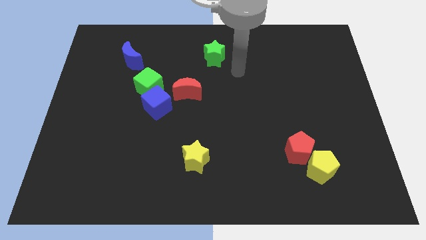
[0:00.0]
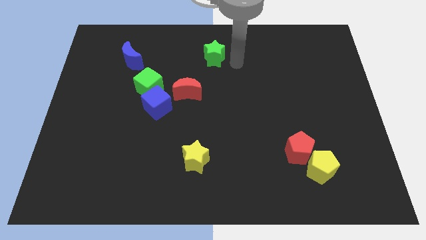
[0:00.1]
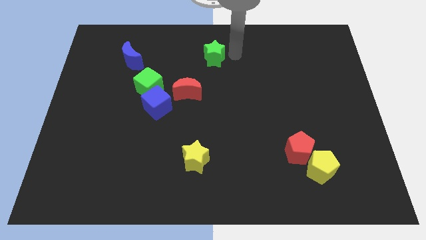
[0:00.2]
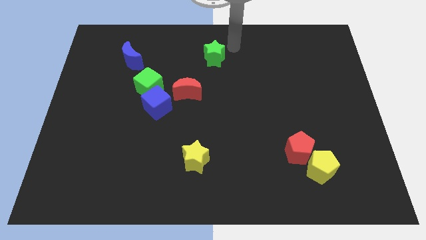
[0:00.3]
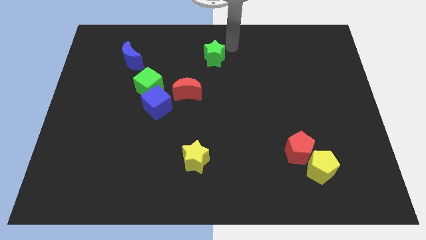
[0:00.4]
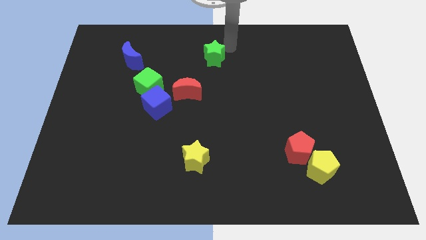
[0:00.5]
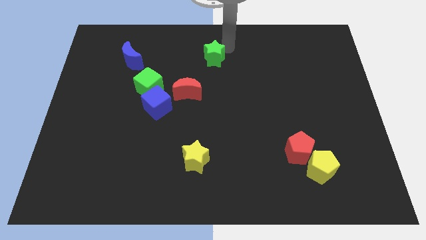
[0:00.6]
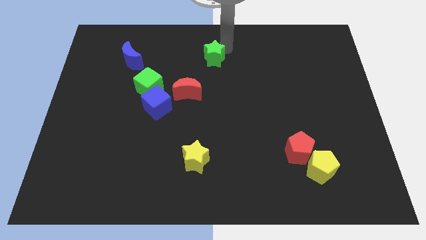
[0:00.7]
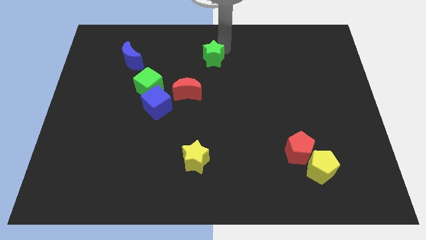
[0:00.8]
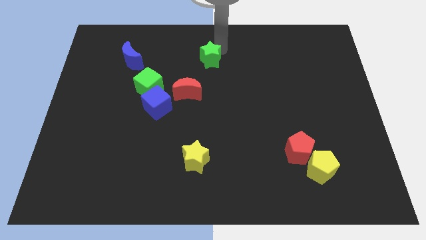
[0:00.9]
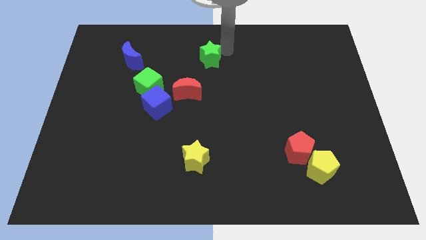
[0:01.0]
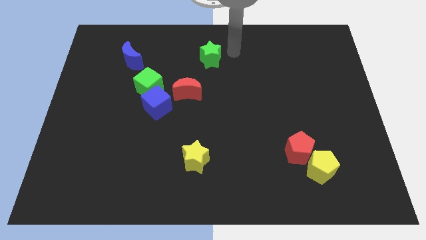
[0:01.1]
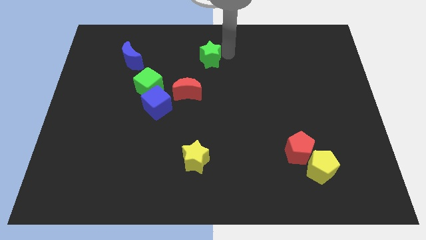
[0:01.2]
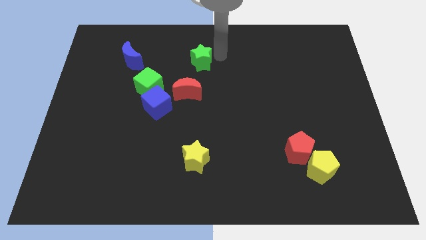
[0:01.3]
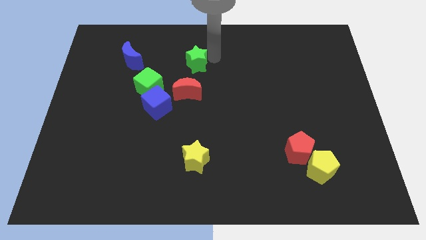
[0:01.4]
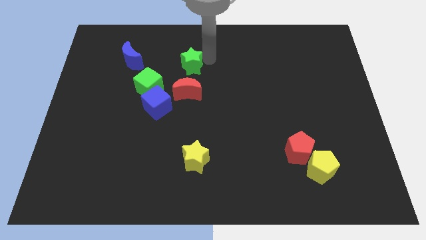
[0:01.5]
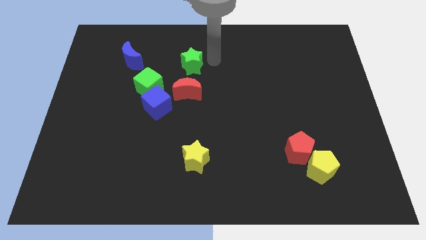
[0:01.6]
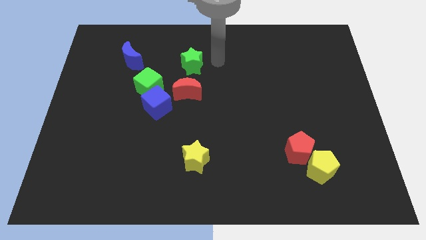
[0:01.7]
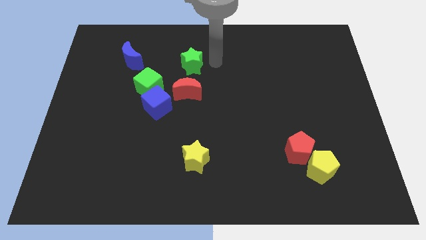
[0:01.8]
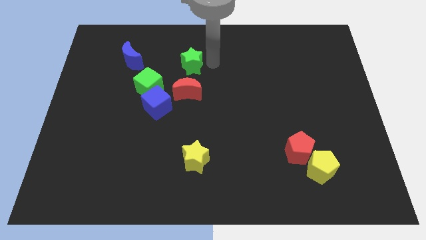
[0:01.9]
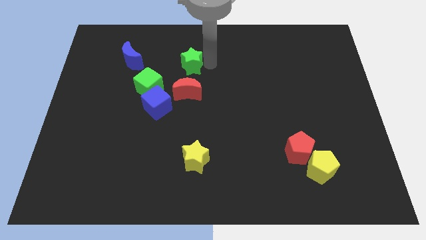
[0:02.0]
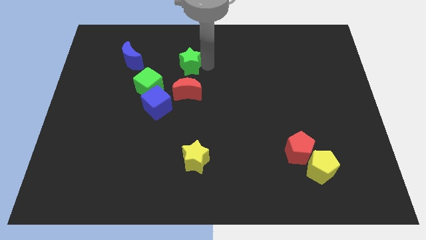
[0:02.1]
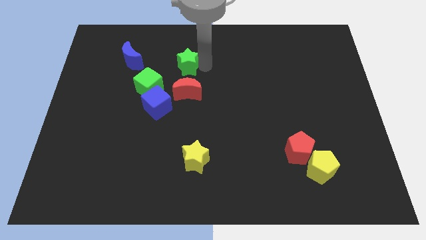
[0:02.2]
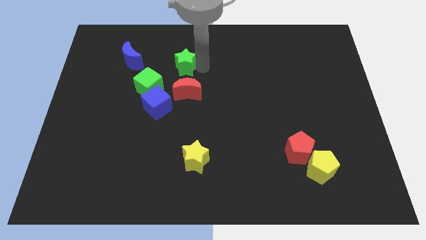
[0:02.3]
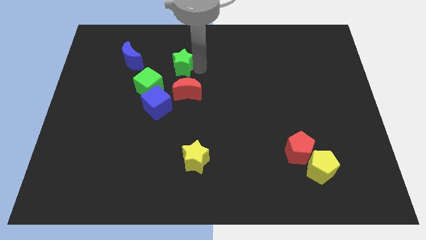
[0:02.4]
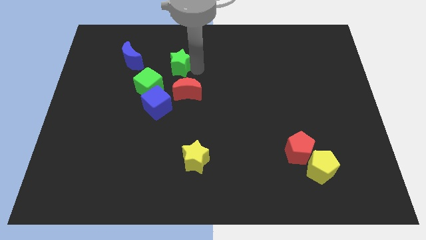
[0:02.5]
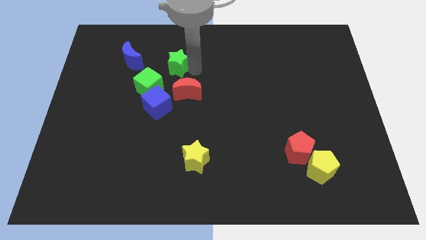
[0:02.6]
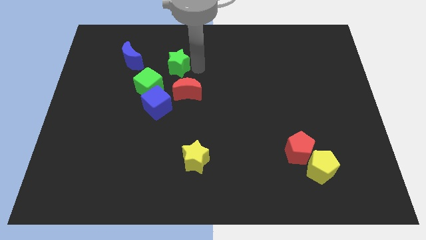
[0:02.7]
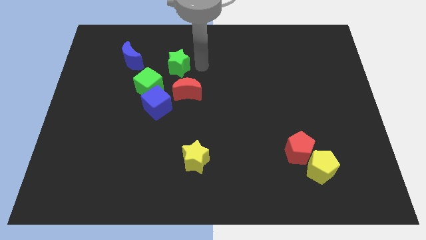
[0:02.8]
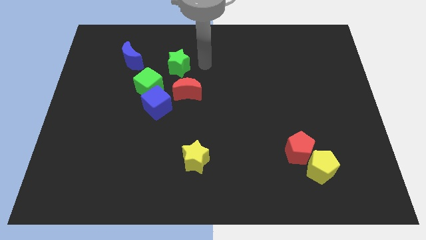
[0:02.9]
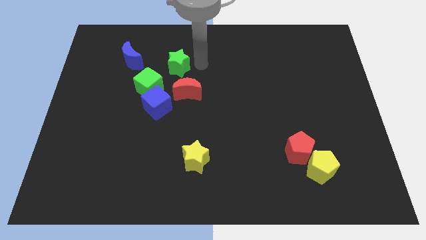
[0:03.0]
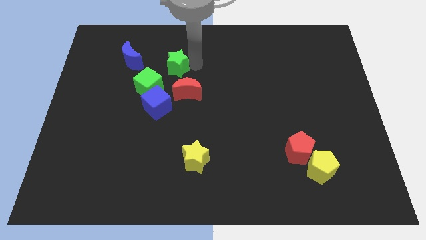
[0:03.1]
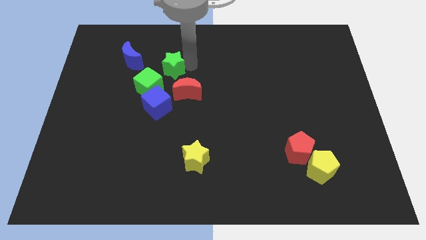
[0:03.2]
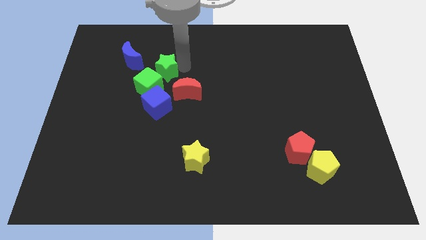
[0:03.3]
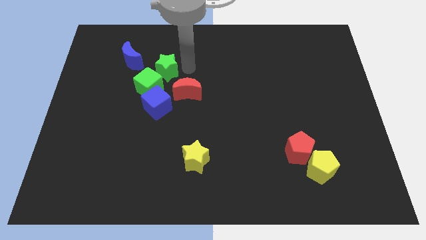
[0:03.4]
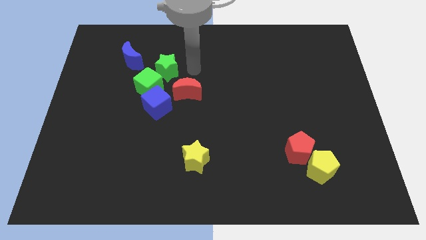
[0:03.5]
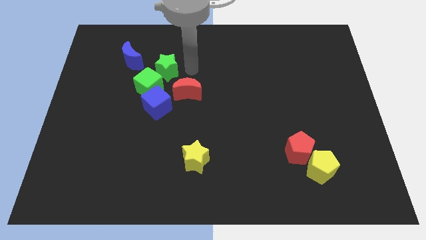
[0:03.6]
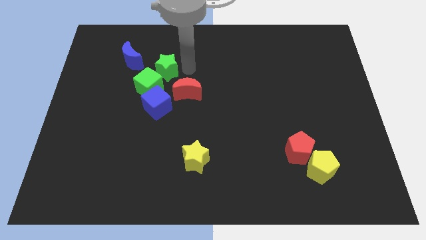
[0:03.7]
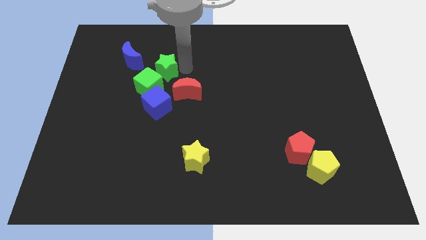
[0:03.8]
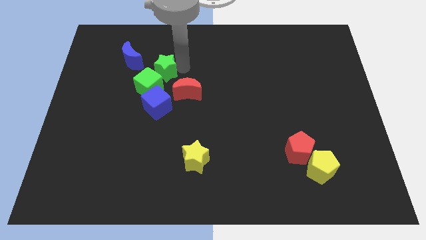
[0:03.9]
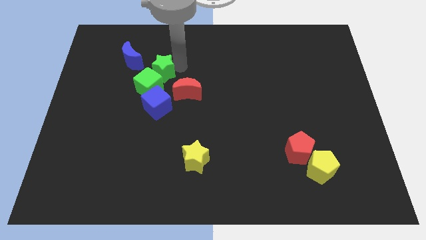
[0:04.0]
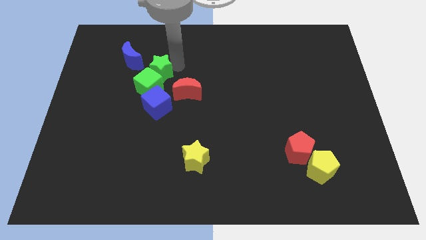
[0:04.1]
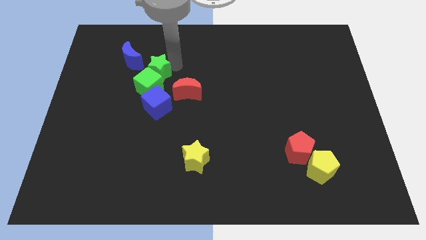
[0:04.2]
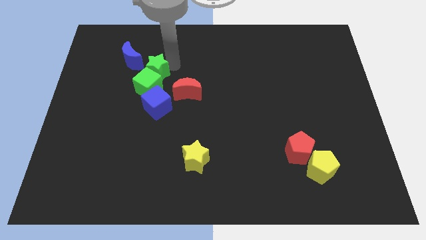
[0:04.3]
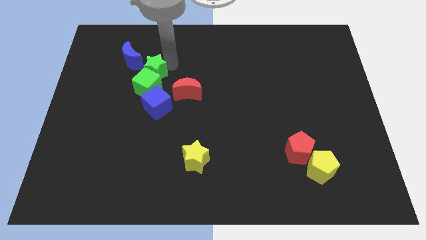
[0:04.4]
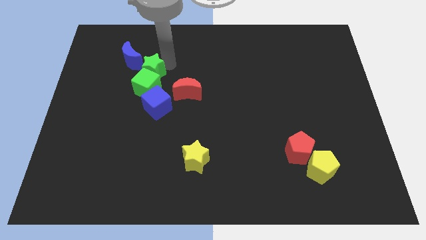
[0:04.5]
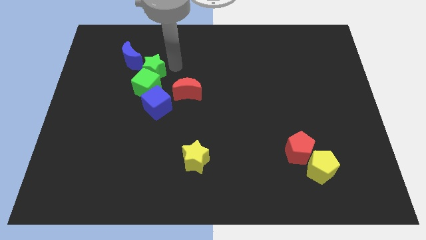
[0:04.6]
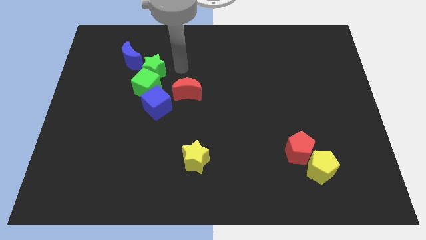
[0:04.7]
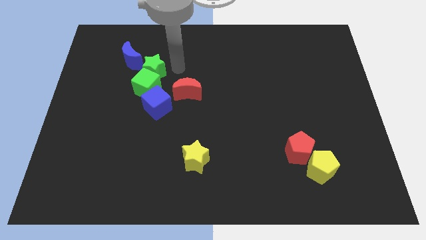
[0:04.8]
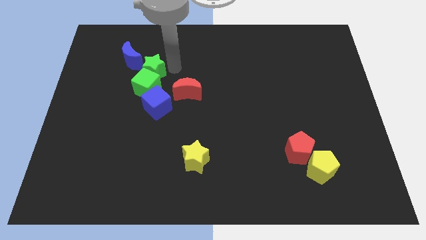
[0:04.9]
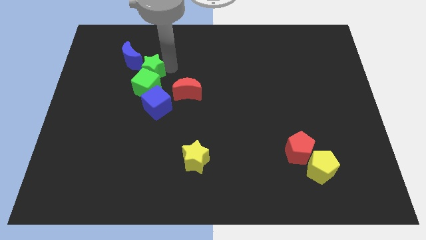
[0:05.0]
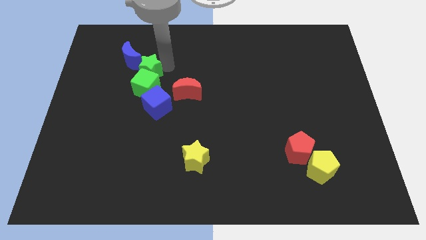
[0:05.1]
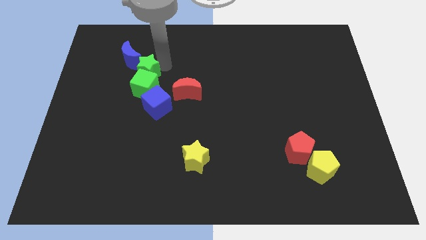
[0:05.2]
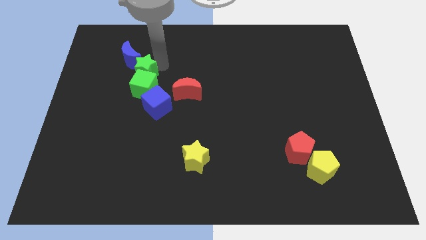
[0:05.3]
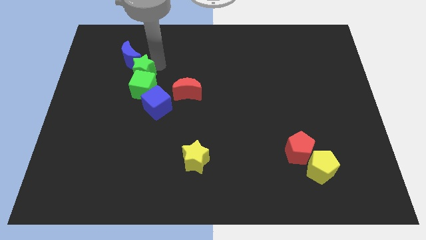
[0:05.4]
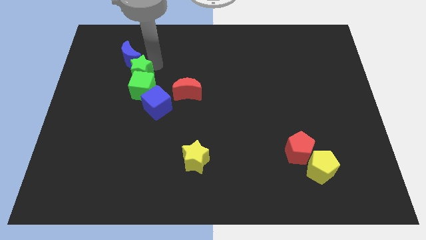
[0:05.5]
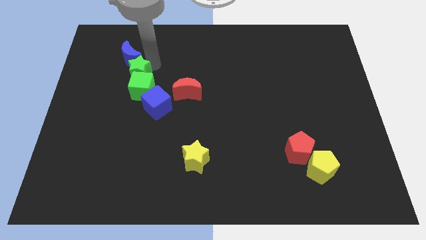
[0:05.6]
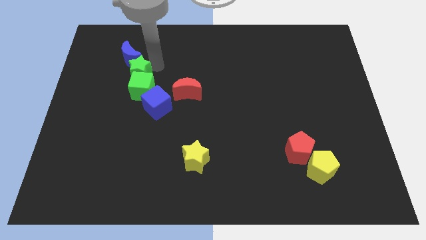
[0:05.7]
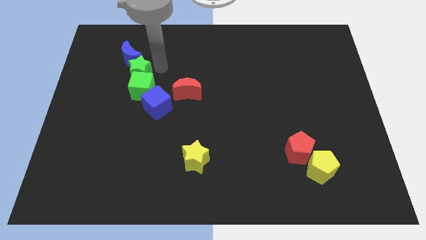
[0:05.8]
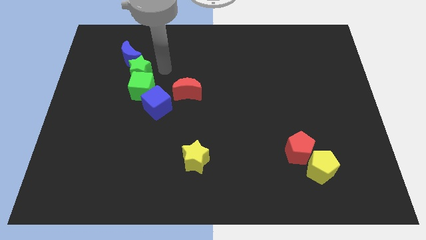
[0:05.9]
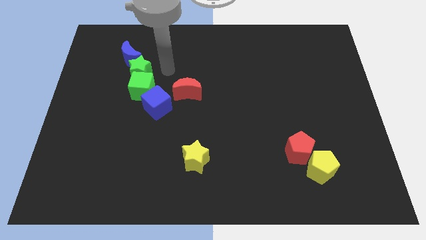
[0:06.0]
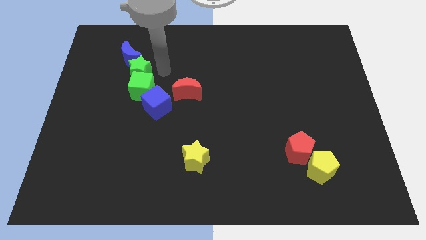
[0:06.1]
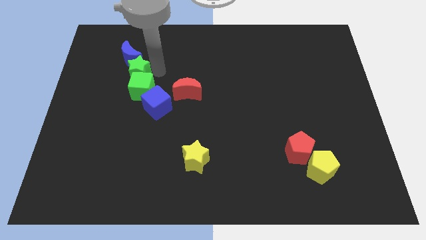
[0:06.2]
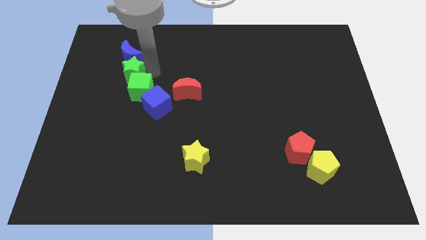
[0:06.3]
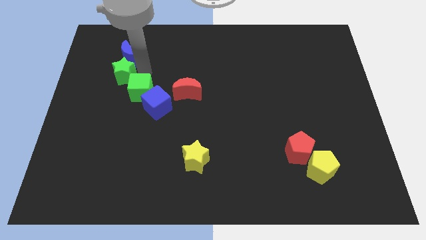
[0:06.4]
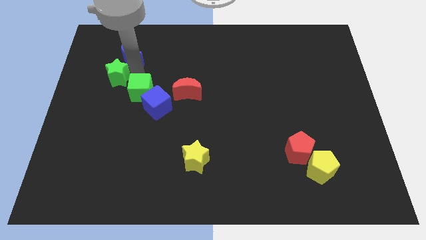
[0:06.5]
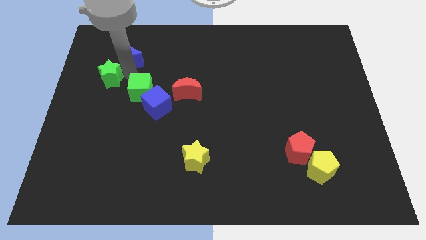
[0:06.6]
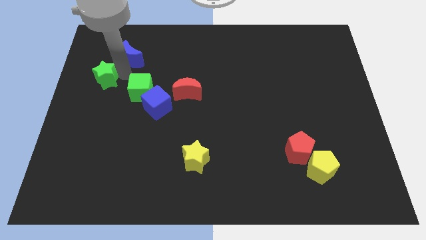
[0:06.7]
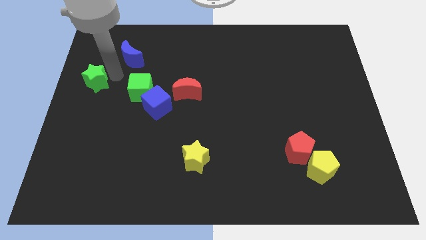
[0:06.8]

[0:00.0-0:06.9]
push the green star to the left side of the board
